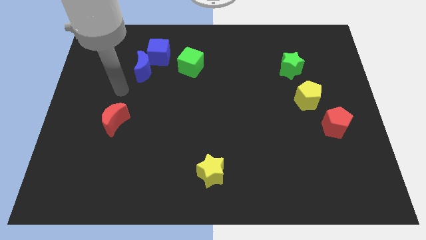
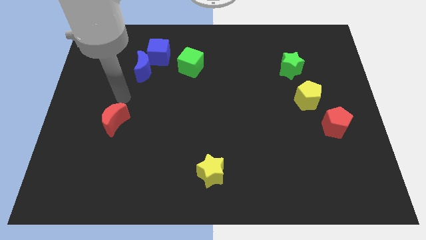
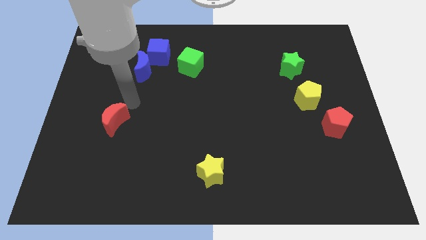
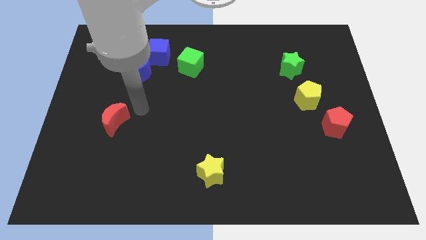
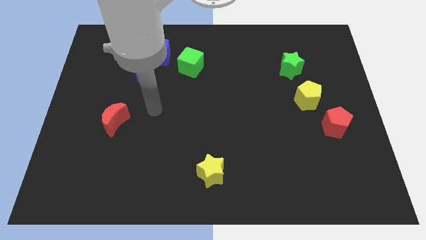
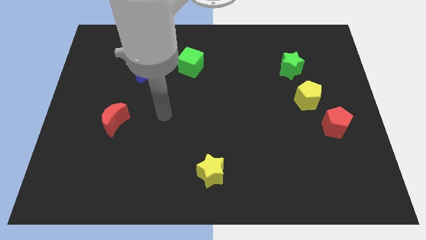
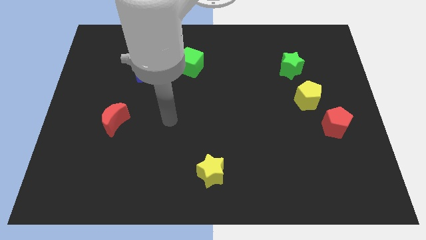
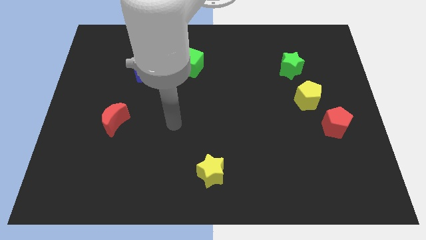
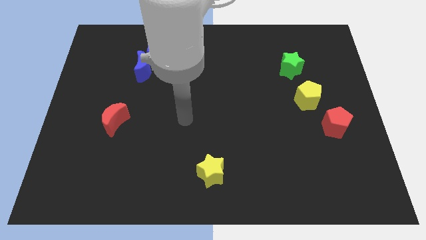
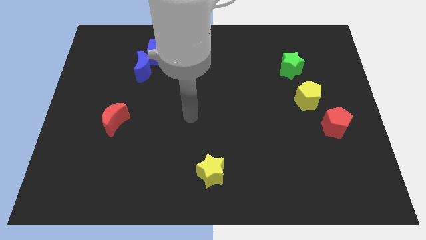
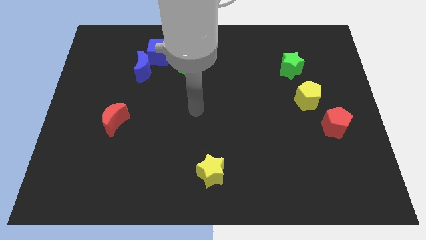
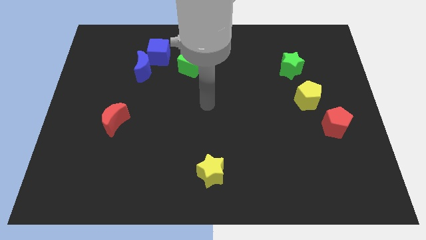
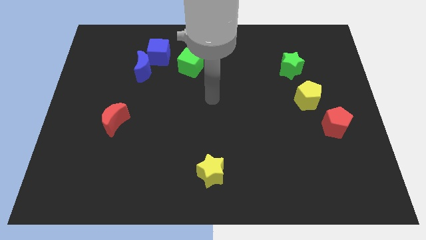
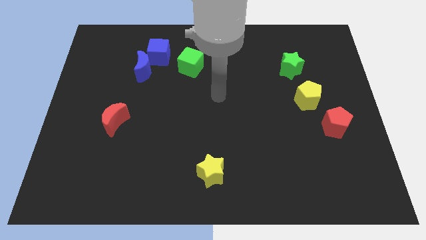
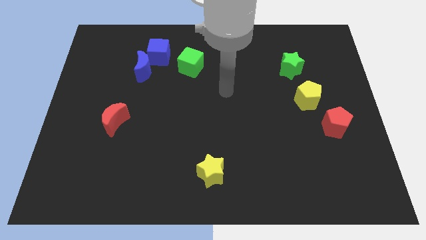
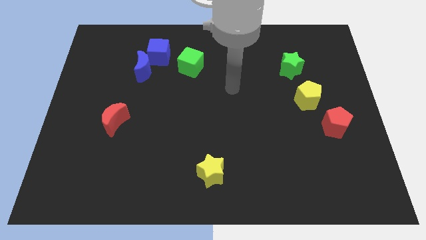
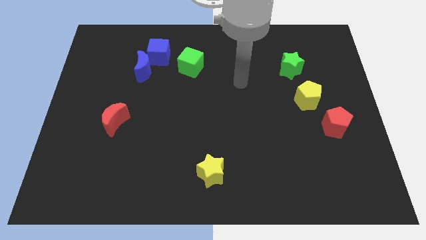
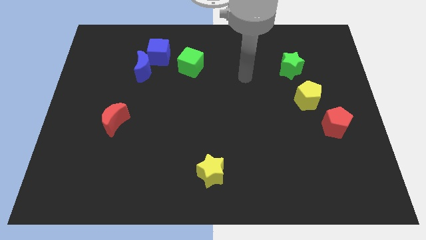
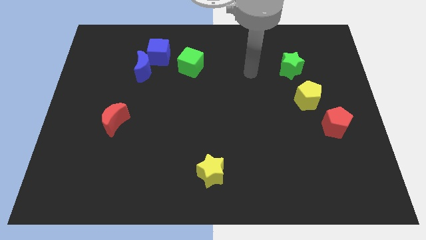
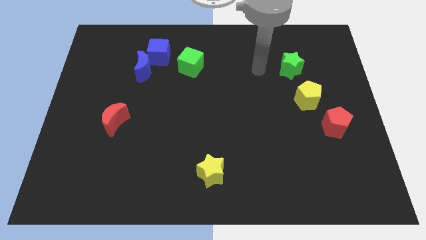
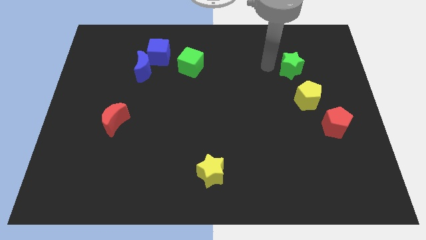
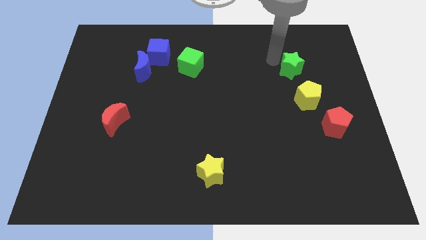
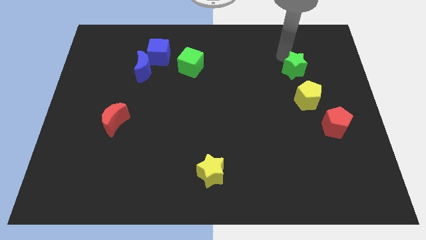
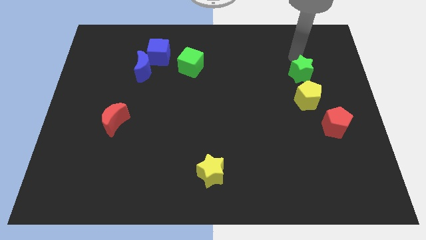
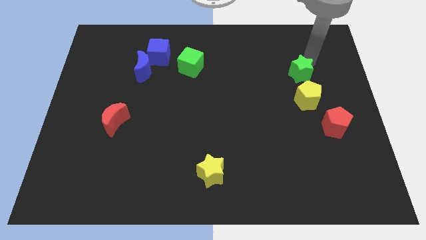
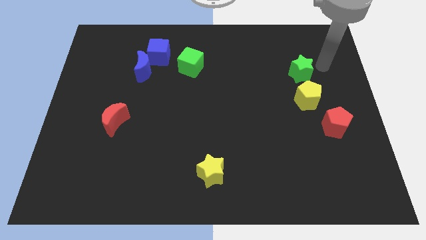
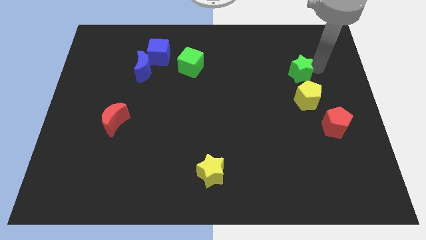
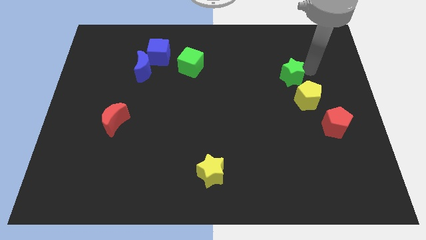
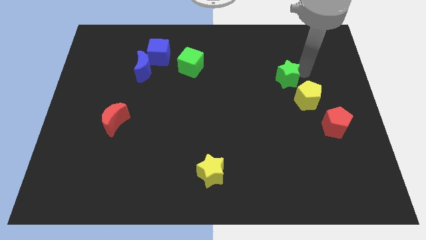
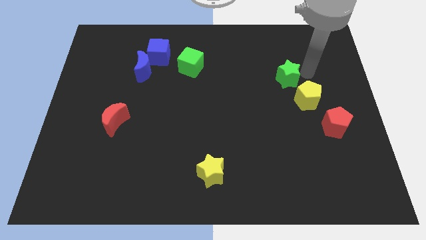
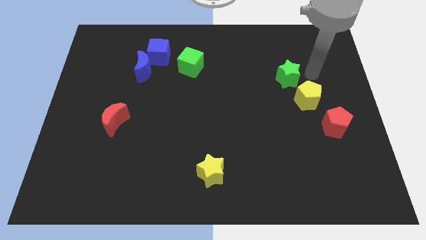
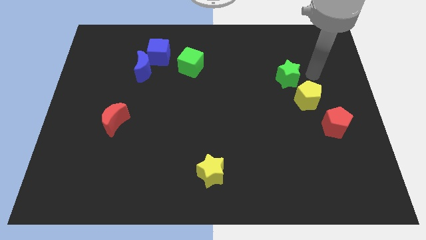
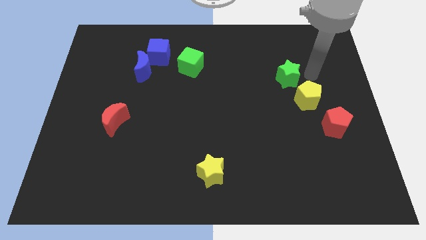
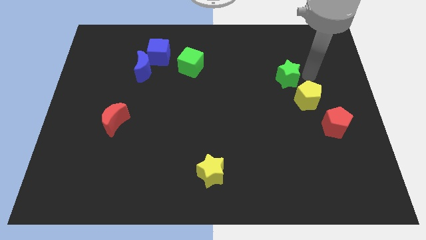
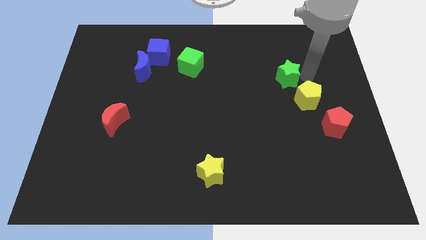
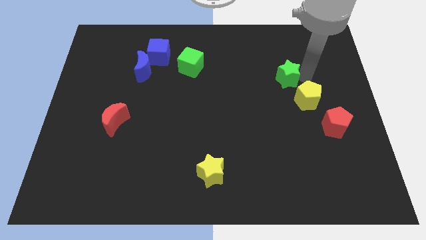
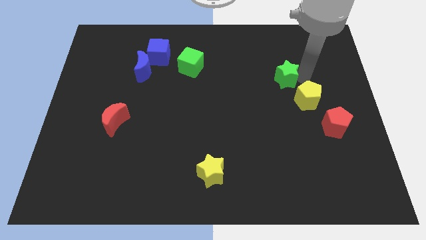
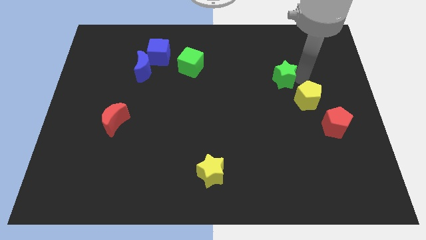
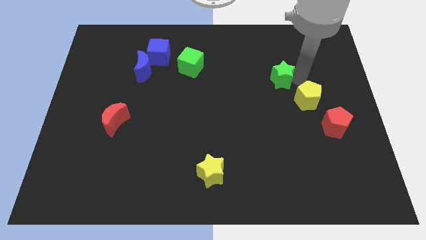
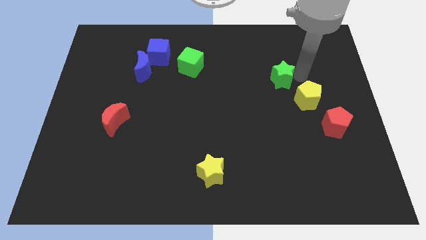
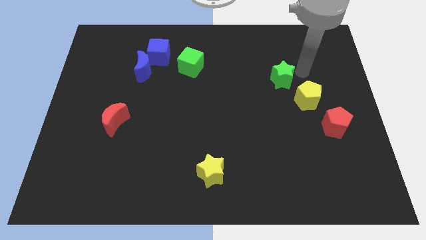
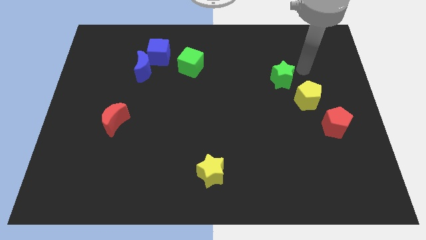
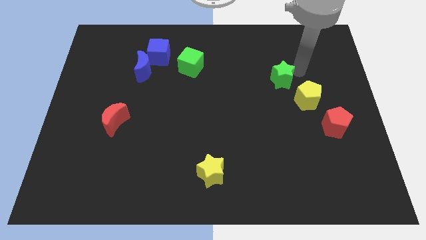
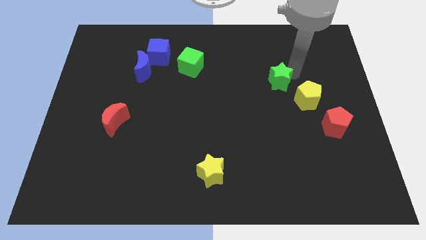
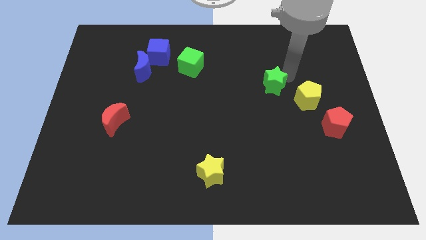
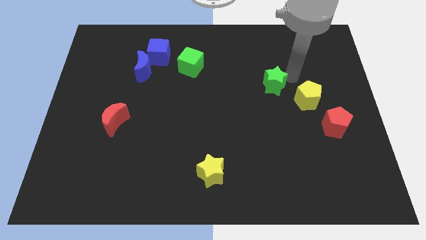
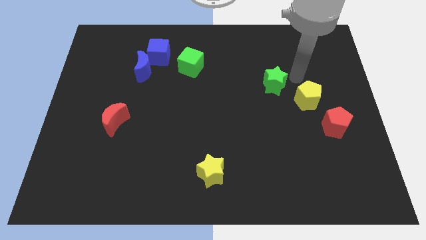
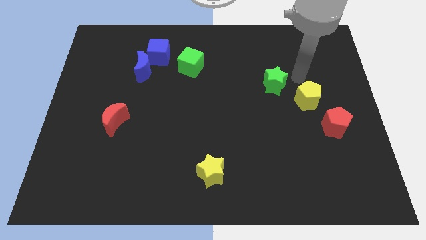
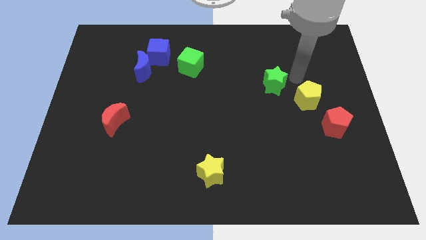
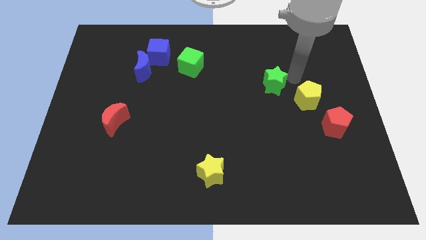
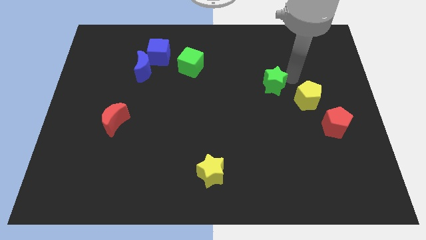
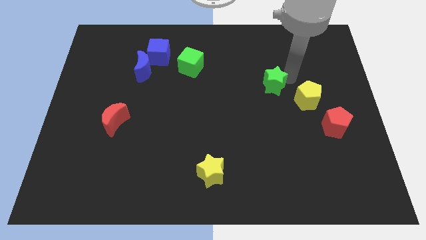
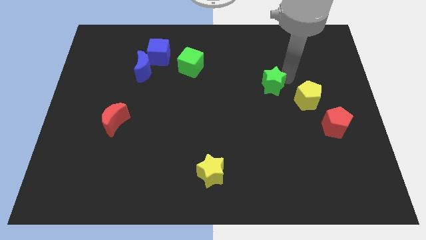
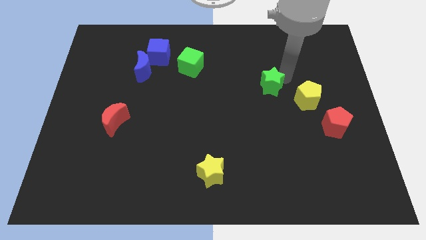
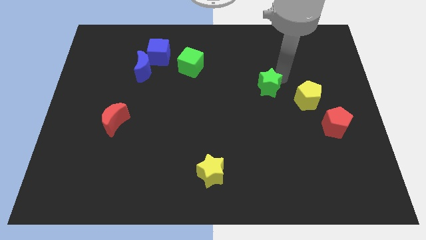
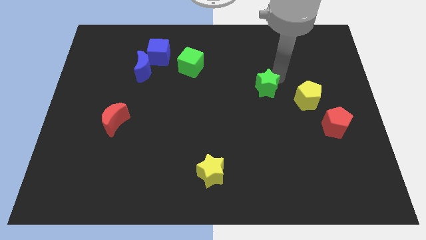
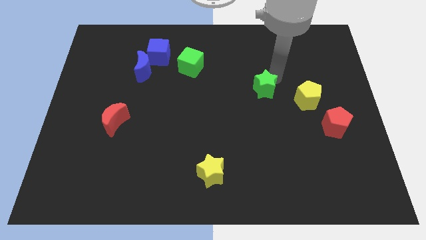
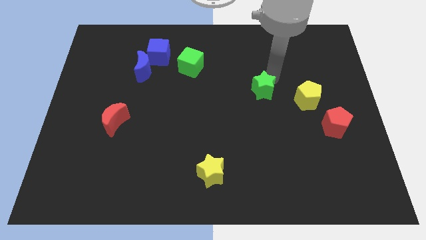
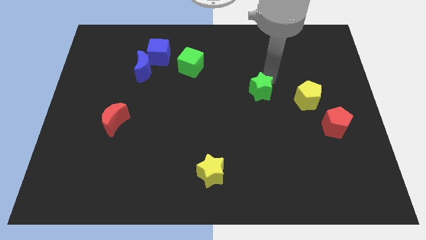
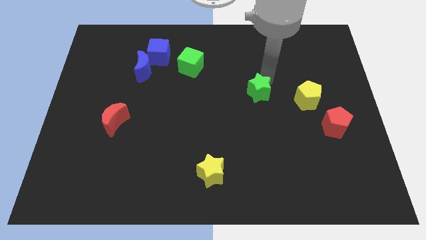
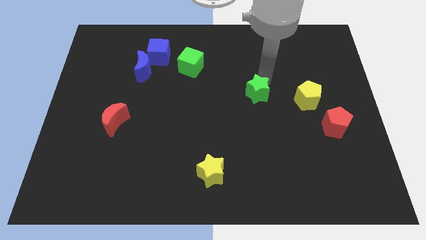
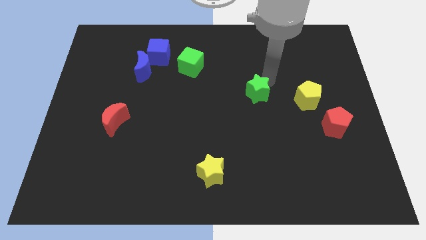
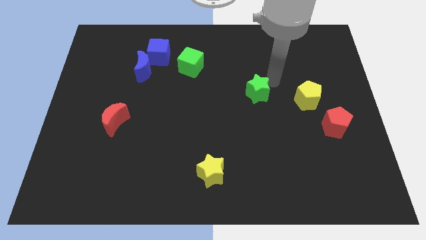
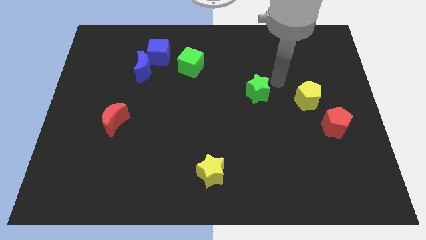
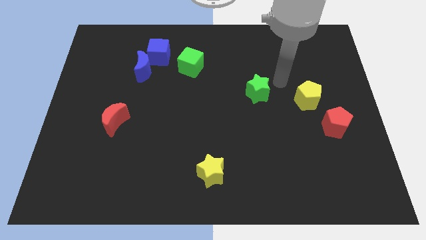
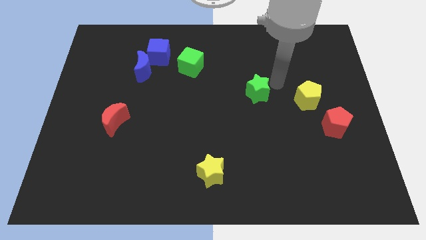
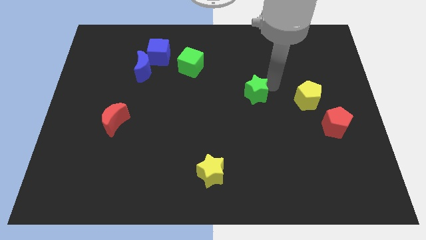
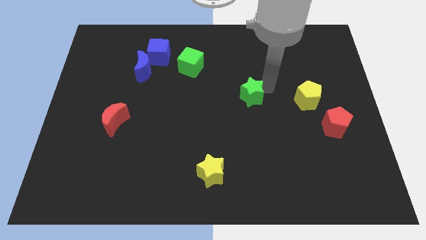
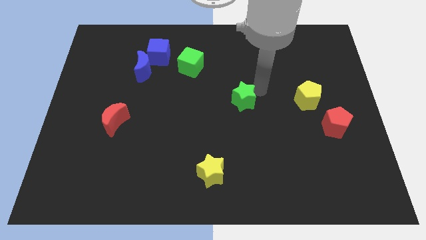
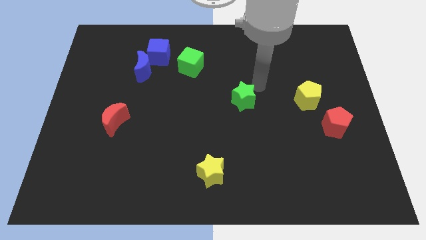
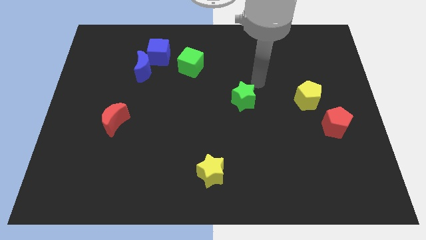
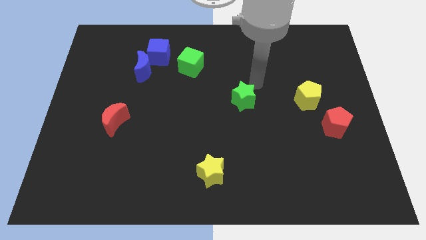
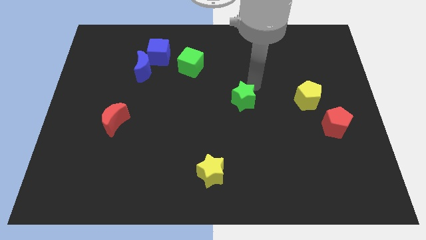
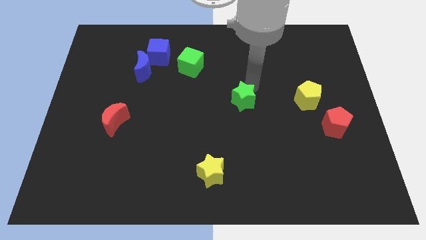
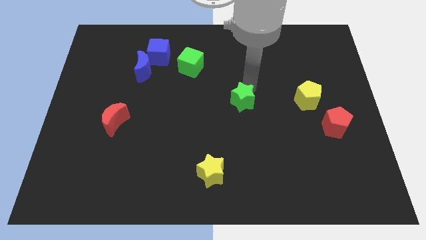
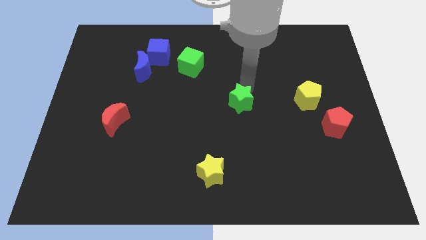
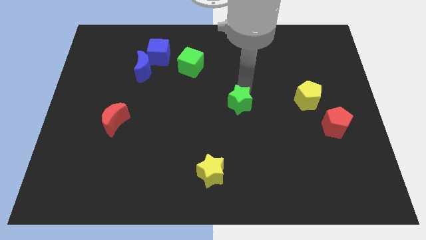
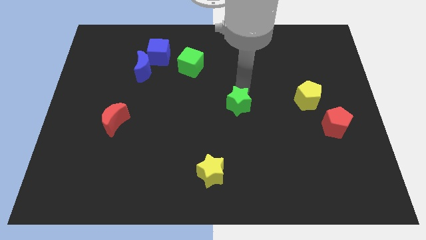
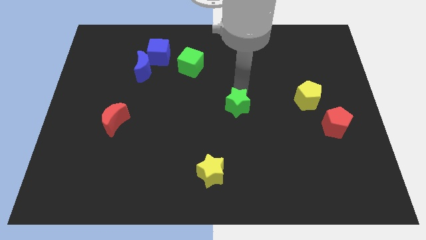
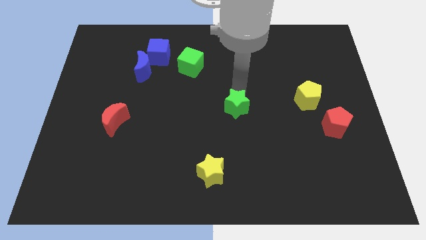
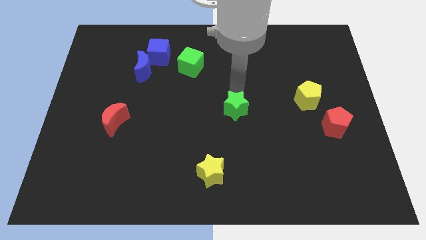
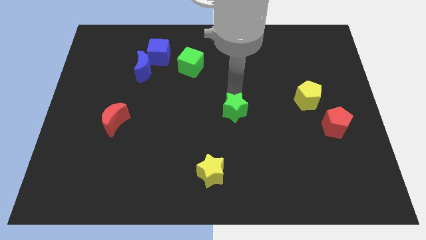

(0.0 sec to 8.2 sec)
move the green star diagonally downwards and left
